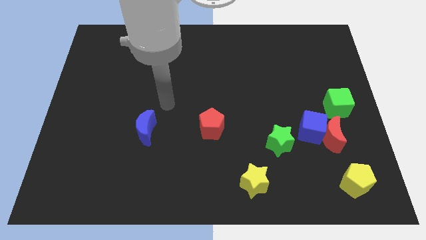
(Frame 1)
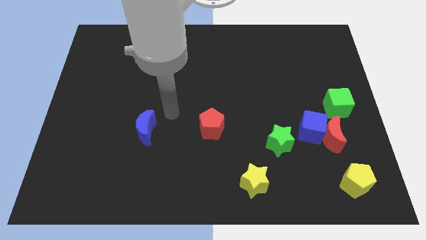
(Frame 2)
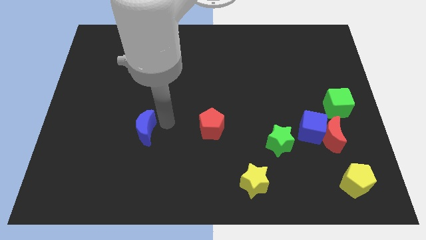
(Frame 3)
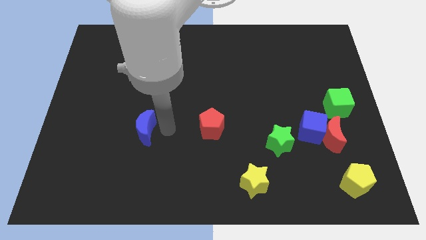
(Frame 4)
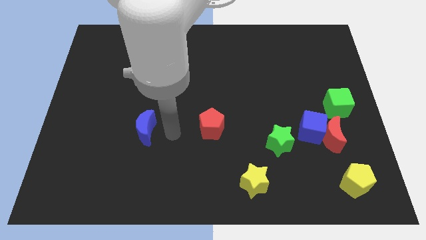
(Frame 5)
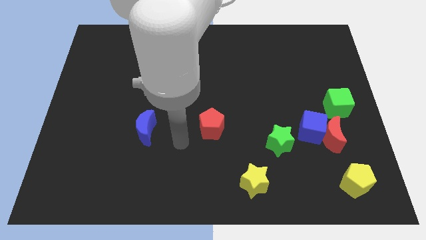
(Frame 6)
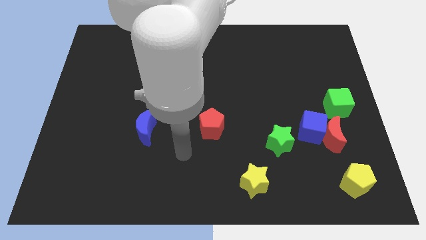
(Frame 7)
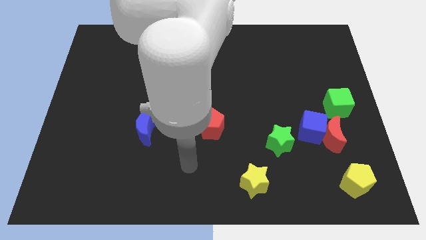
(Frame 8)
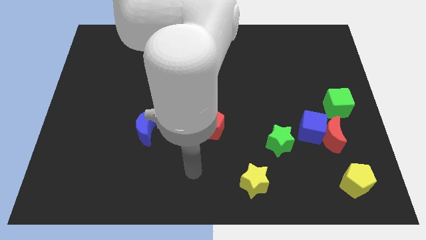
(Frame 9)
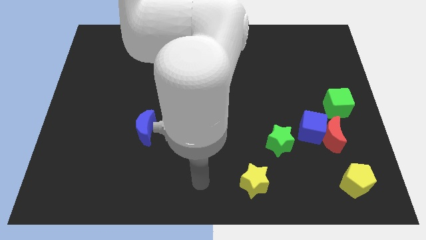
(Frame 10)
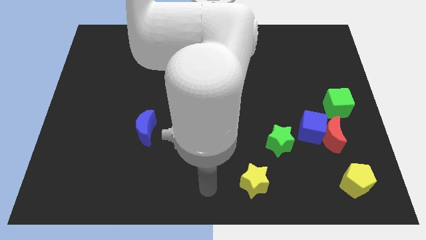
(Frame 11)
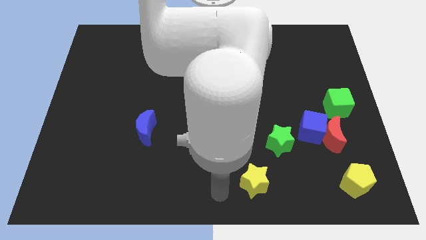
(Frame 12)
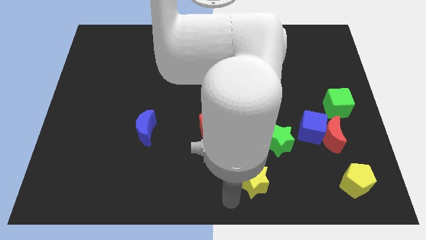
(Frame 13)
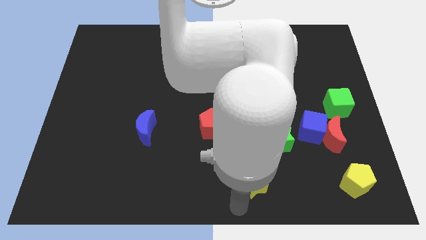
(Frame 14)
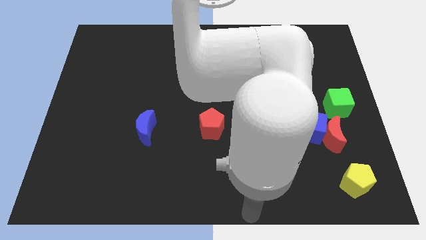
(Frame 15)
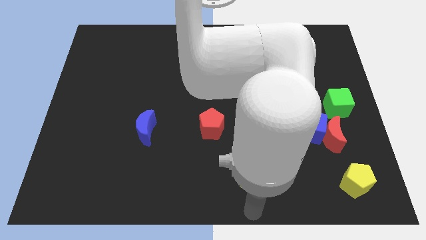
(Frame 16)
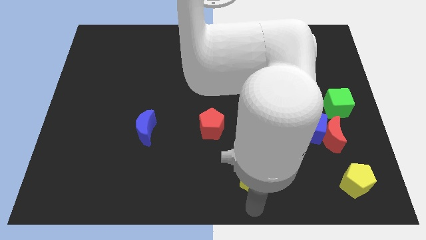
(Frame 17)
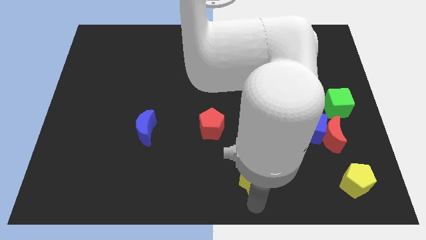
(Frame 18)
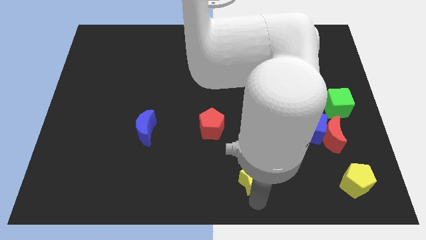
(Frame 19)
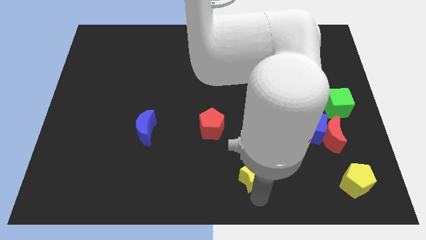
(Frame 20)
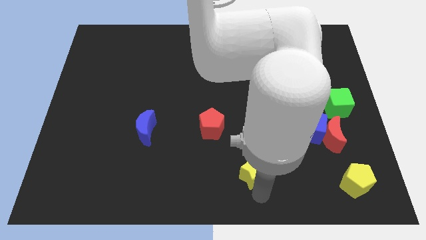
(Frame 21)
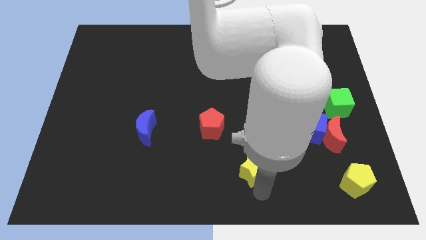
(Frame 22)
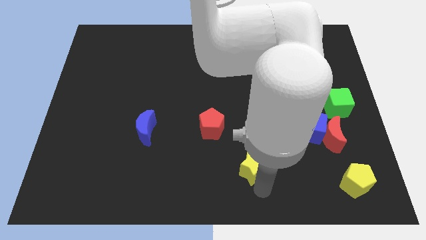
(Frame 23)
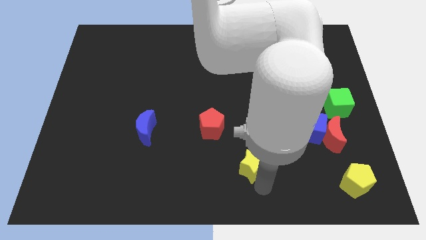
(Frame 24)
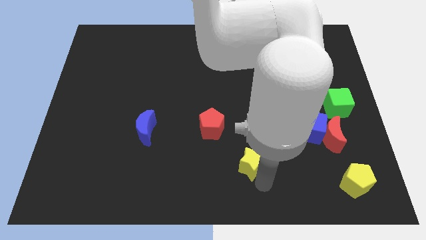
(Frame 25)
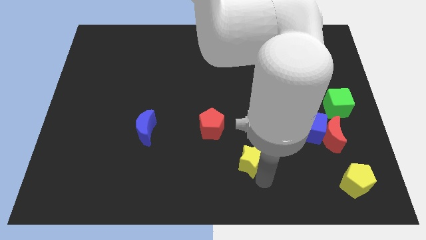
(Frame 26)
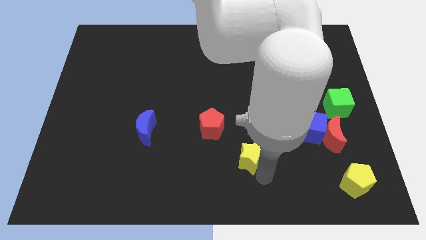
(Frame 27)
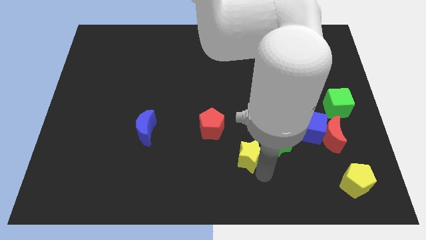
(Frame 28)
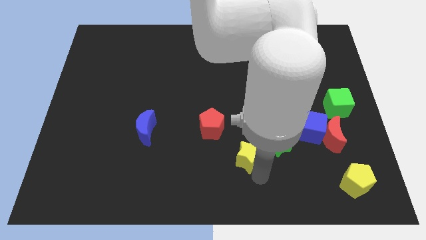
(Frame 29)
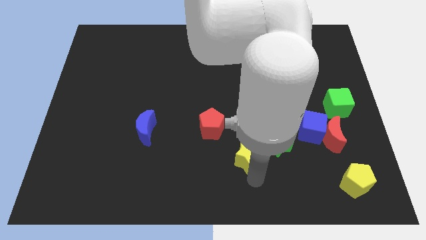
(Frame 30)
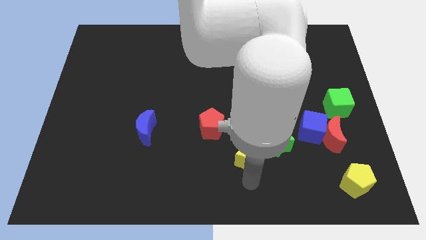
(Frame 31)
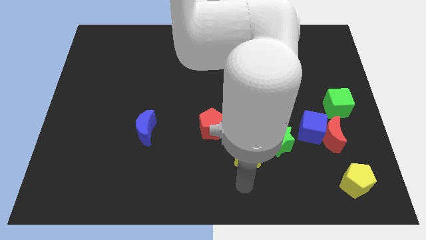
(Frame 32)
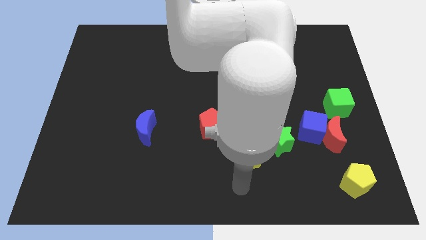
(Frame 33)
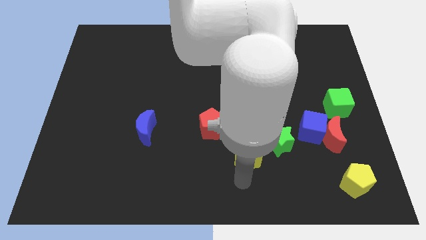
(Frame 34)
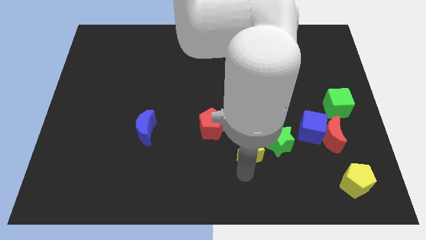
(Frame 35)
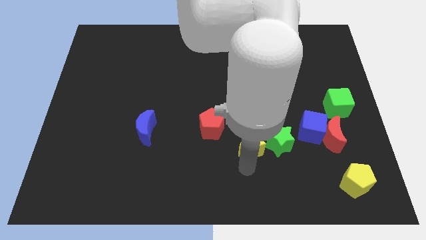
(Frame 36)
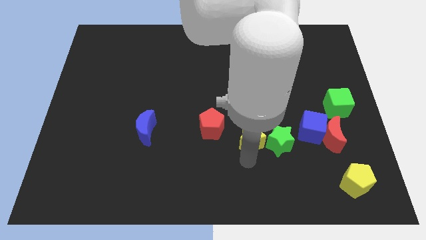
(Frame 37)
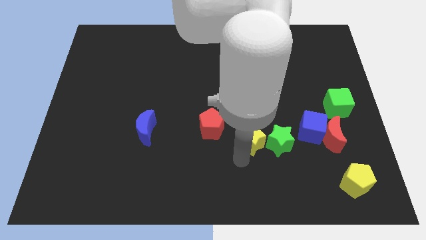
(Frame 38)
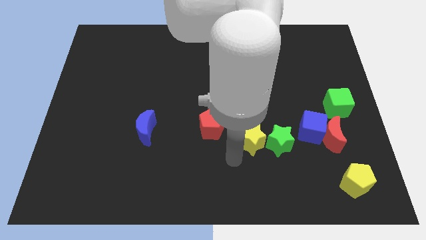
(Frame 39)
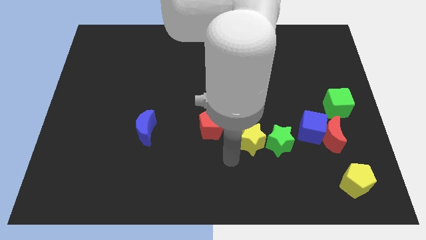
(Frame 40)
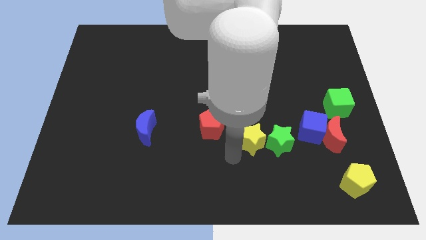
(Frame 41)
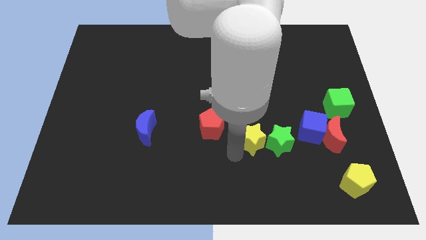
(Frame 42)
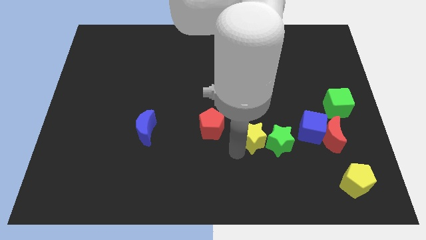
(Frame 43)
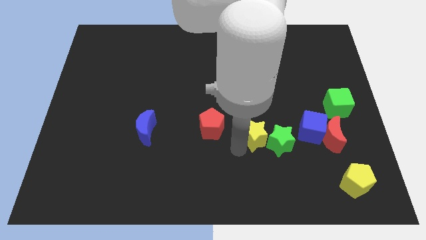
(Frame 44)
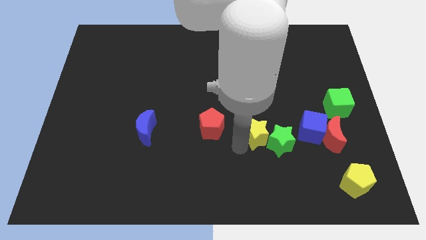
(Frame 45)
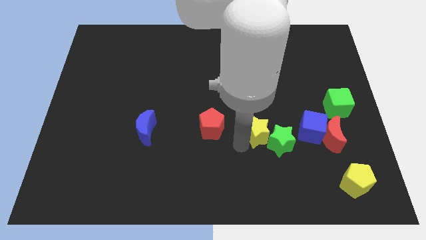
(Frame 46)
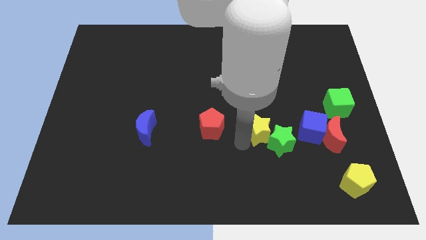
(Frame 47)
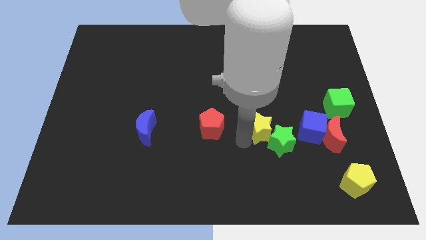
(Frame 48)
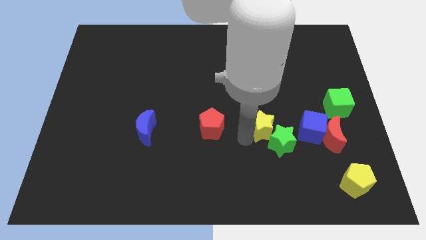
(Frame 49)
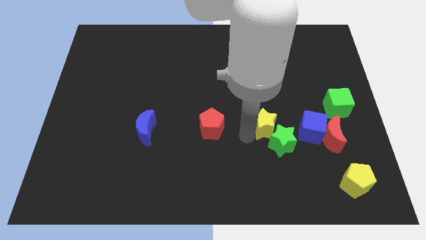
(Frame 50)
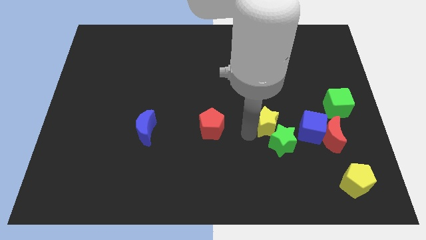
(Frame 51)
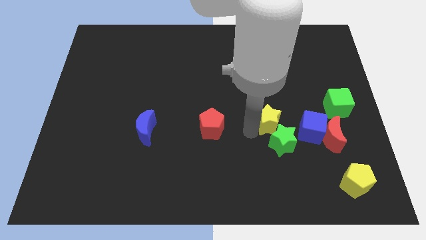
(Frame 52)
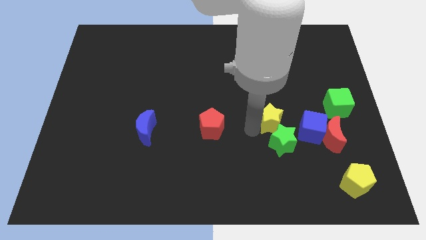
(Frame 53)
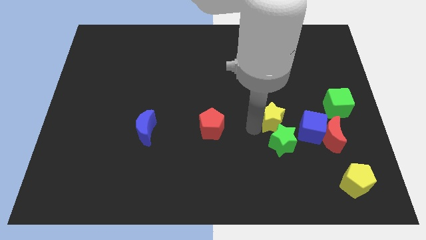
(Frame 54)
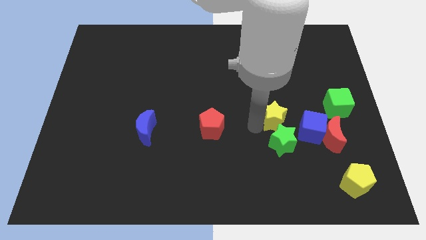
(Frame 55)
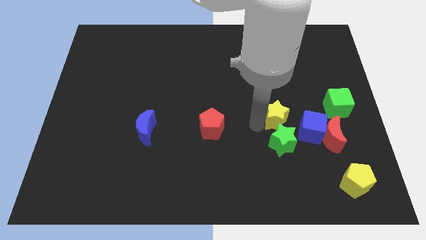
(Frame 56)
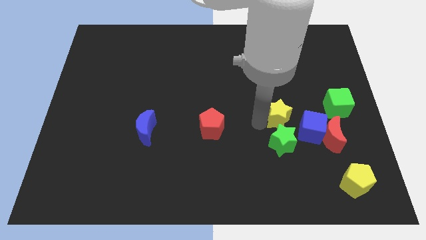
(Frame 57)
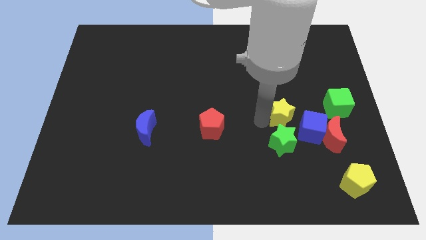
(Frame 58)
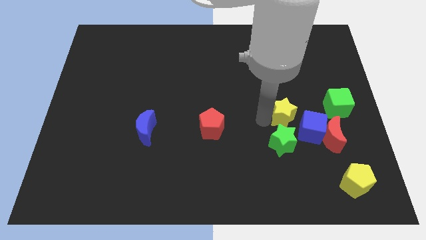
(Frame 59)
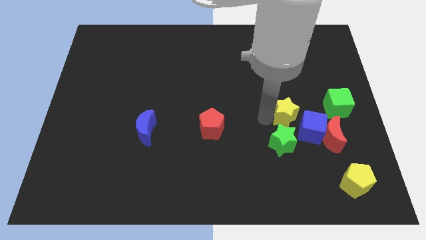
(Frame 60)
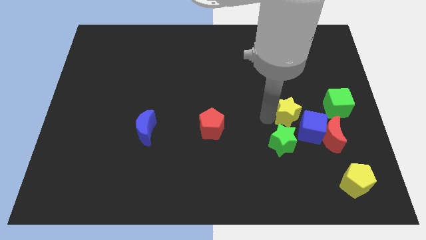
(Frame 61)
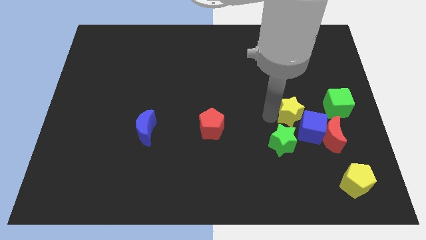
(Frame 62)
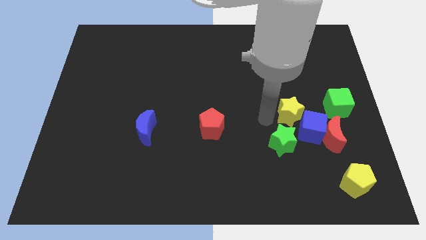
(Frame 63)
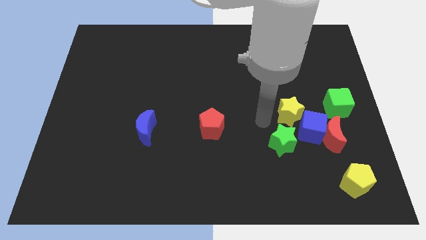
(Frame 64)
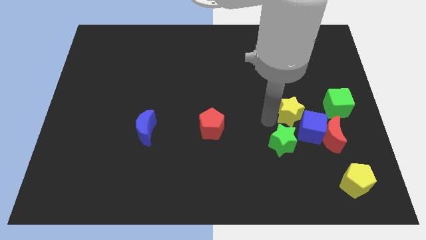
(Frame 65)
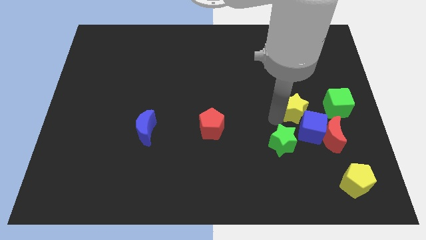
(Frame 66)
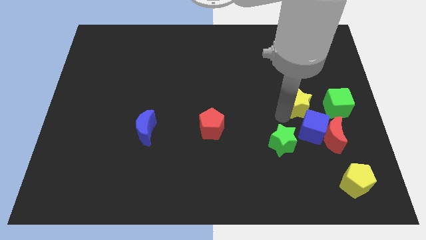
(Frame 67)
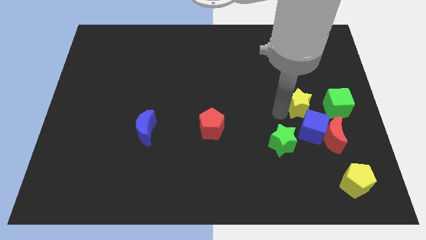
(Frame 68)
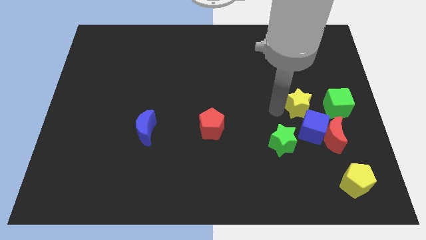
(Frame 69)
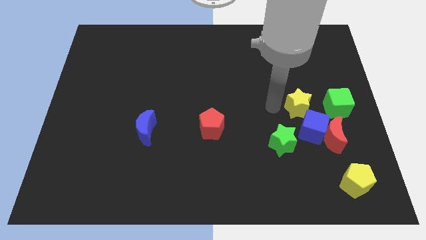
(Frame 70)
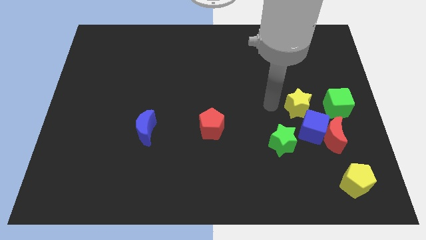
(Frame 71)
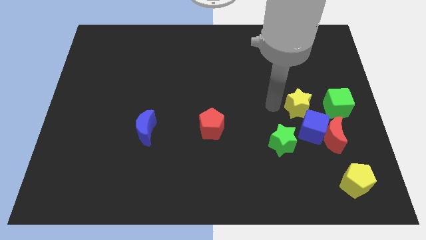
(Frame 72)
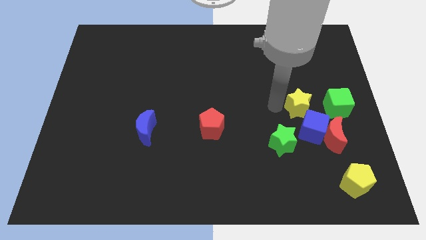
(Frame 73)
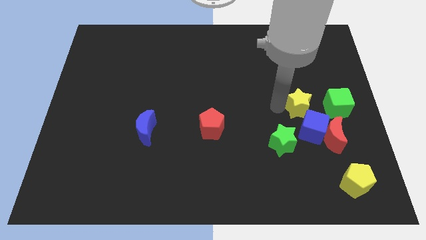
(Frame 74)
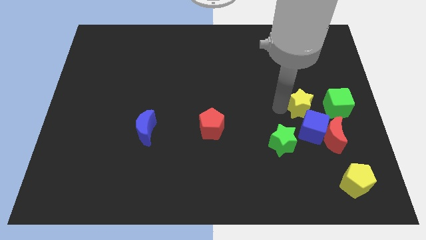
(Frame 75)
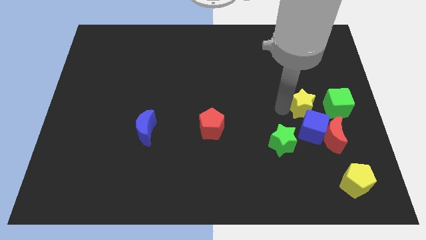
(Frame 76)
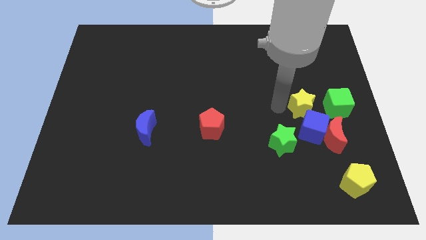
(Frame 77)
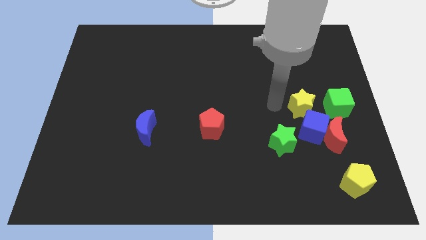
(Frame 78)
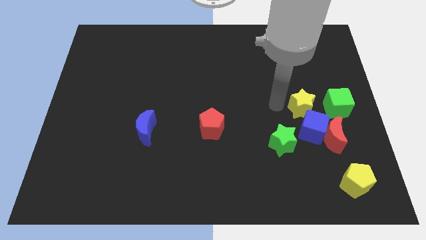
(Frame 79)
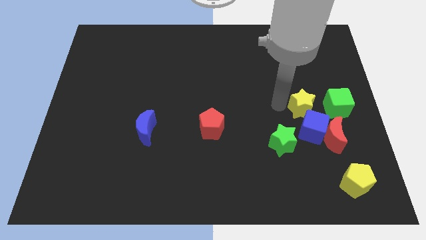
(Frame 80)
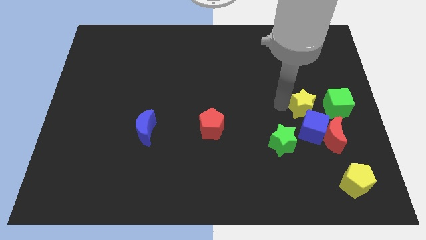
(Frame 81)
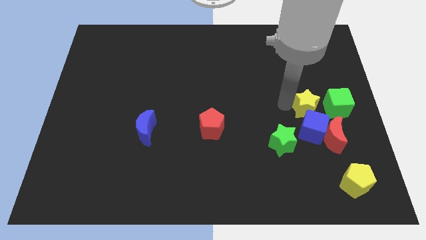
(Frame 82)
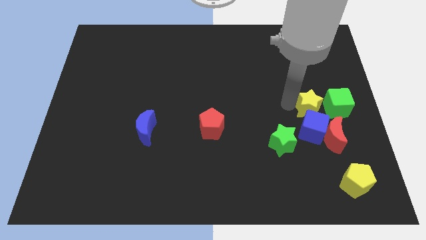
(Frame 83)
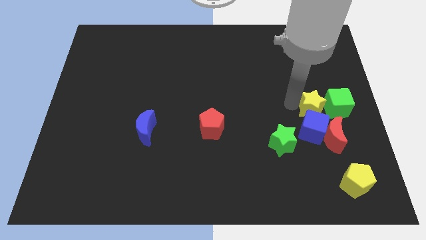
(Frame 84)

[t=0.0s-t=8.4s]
slide the yellow star next to the green cube
